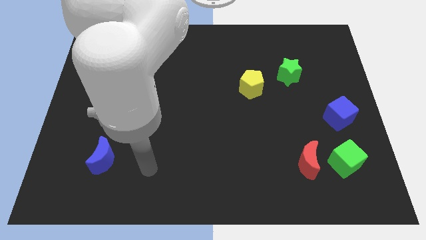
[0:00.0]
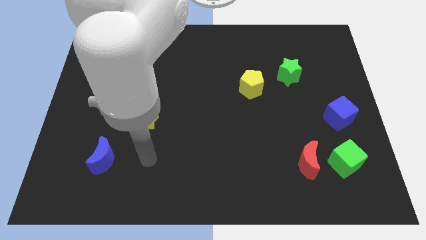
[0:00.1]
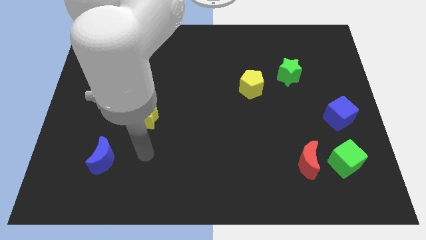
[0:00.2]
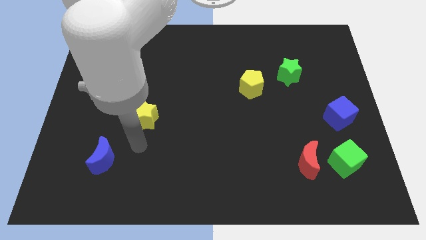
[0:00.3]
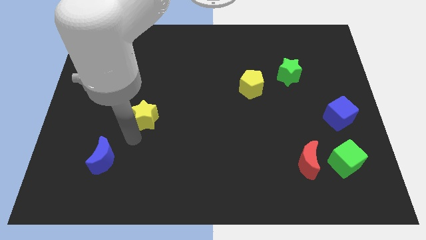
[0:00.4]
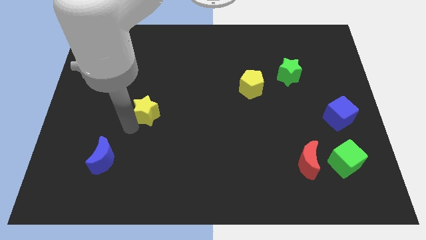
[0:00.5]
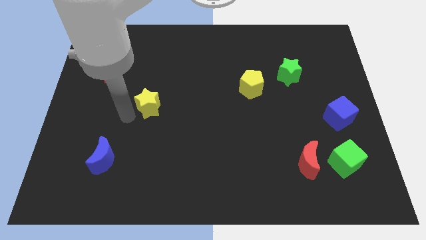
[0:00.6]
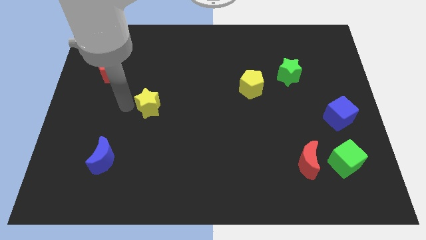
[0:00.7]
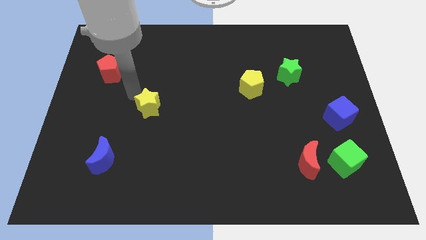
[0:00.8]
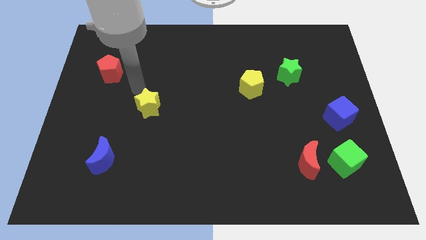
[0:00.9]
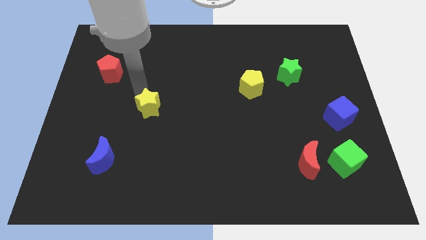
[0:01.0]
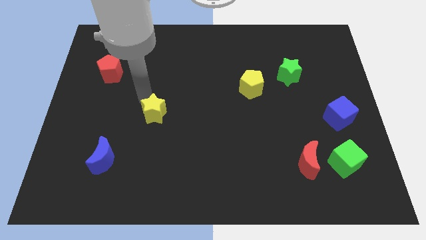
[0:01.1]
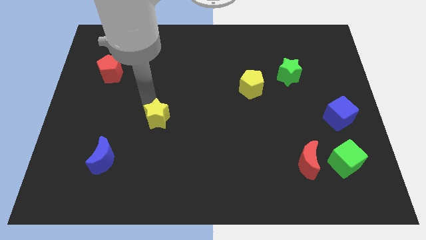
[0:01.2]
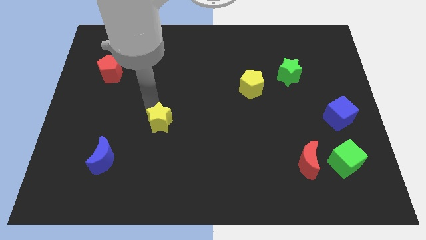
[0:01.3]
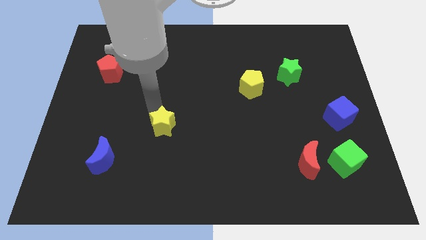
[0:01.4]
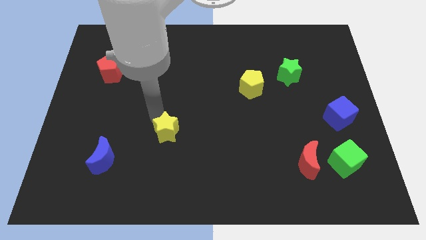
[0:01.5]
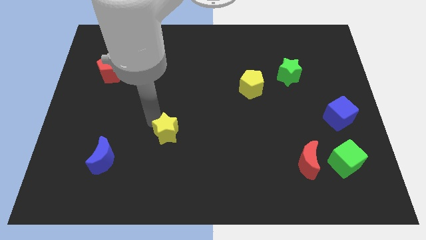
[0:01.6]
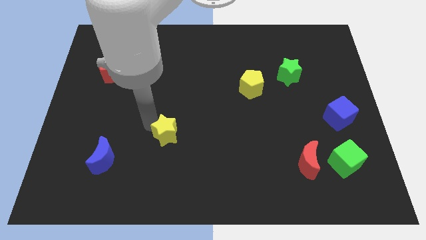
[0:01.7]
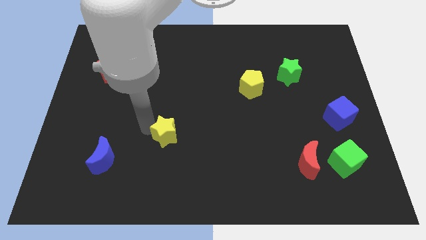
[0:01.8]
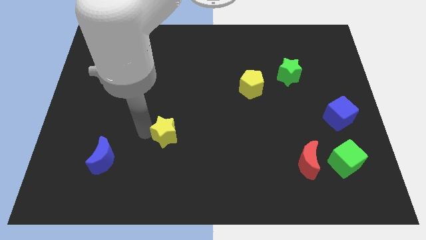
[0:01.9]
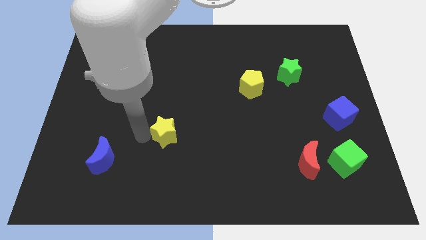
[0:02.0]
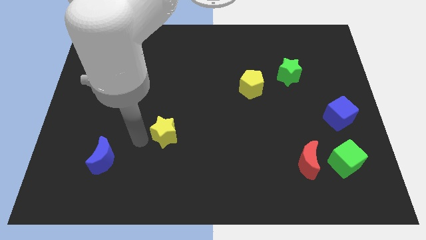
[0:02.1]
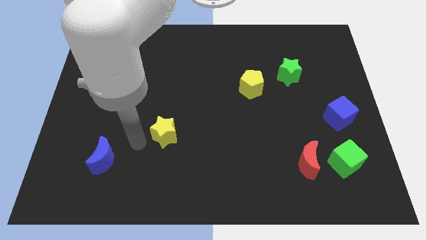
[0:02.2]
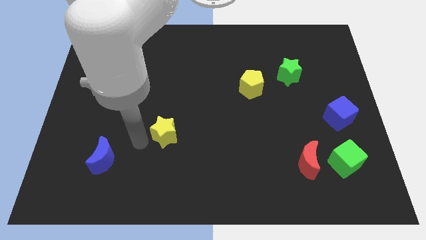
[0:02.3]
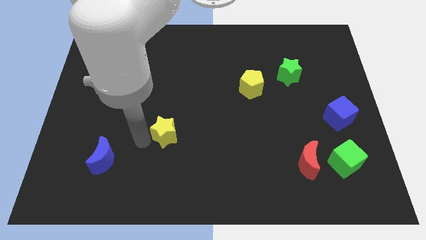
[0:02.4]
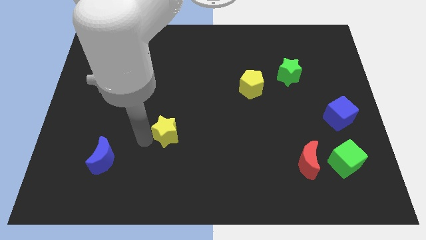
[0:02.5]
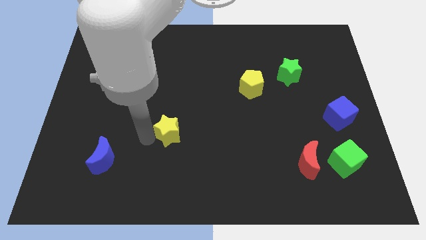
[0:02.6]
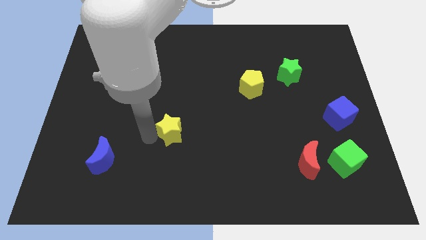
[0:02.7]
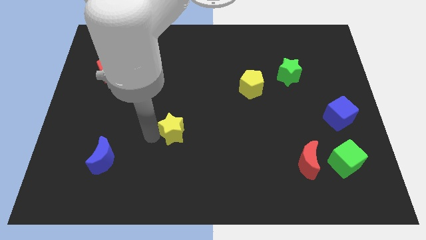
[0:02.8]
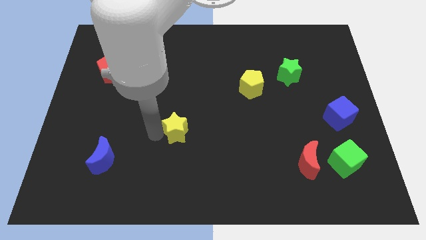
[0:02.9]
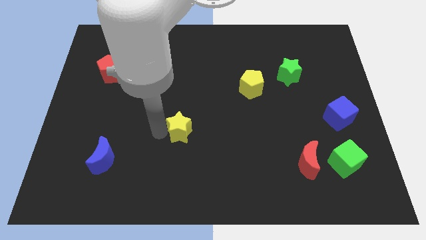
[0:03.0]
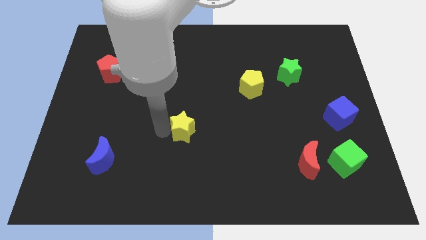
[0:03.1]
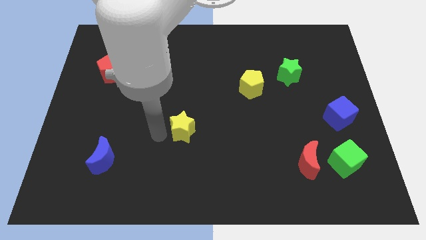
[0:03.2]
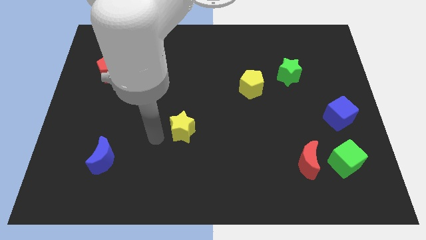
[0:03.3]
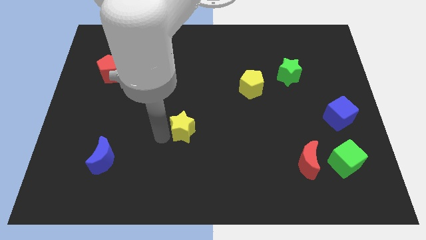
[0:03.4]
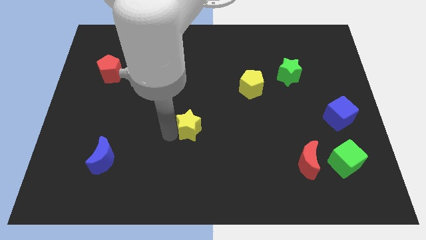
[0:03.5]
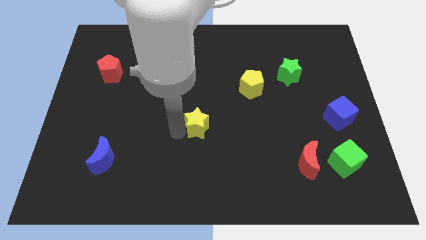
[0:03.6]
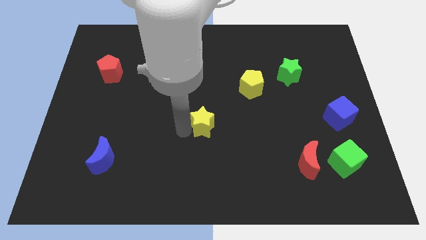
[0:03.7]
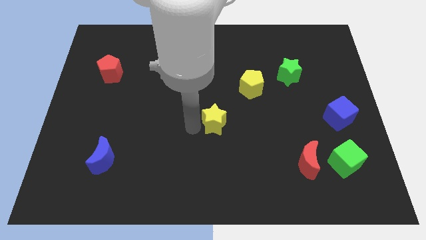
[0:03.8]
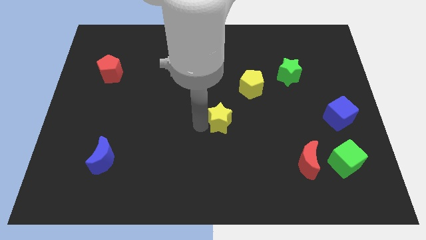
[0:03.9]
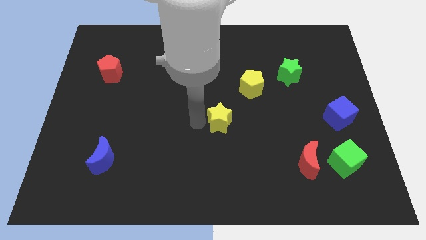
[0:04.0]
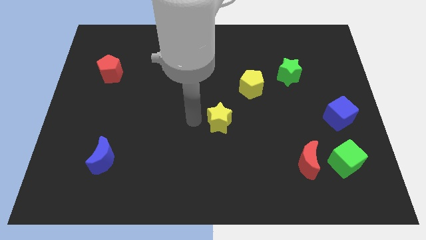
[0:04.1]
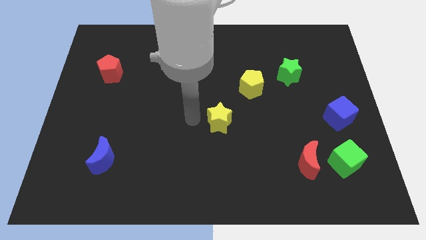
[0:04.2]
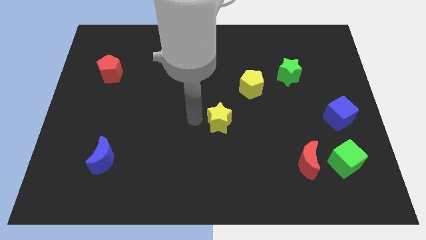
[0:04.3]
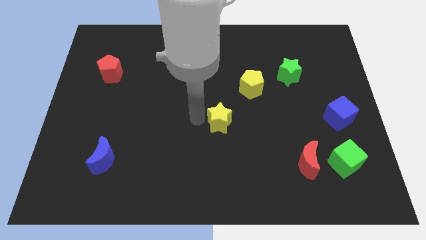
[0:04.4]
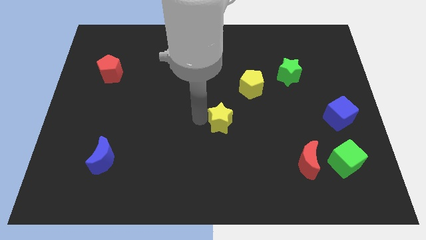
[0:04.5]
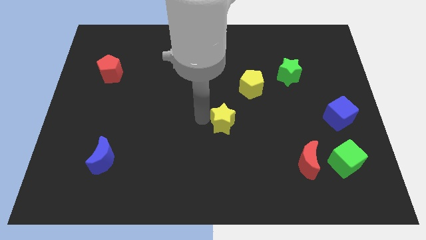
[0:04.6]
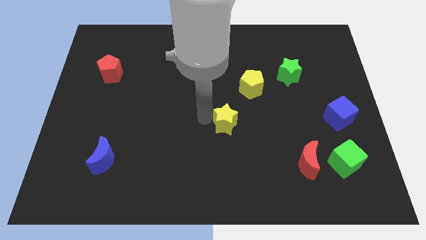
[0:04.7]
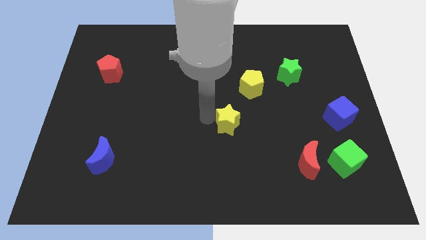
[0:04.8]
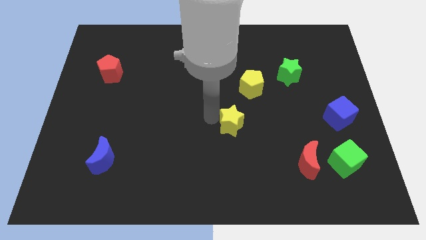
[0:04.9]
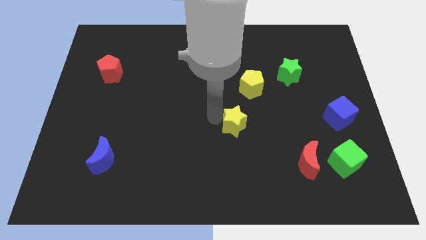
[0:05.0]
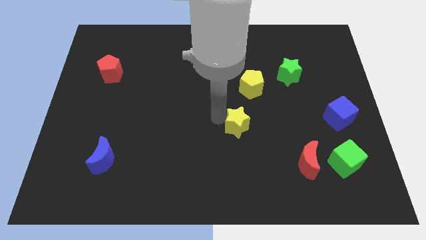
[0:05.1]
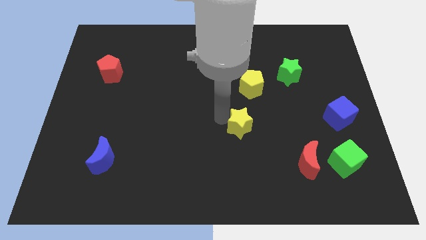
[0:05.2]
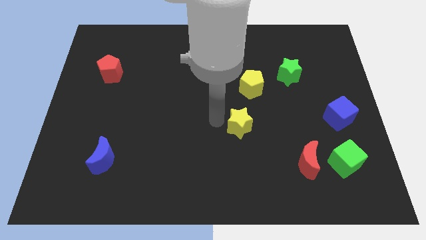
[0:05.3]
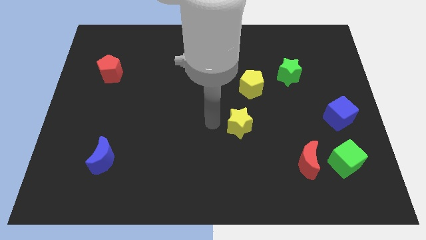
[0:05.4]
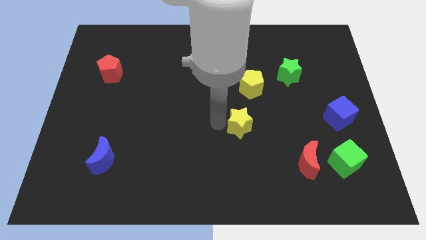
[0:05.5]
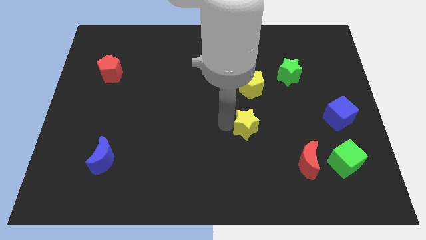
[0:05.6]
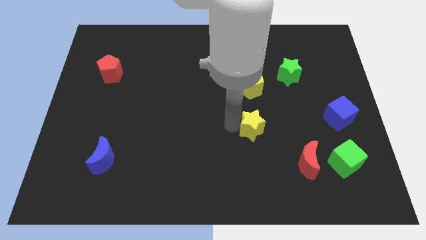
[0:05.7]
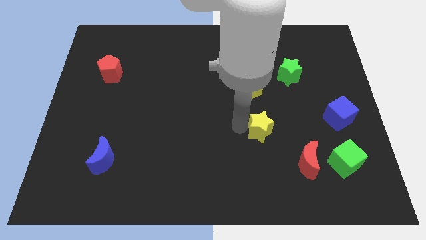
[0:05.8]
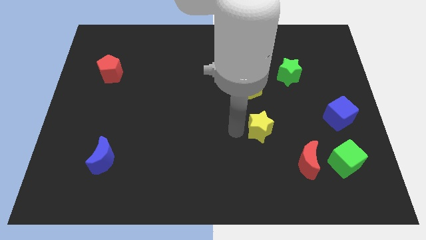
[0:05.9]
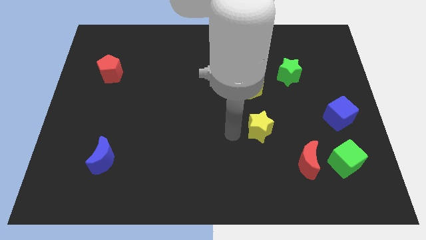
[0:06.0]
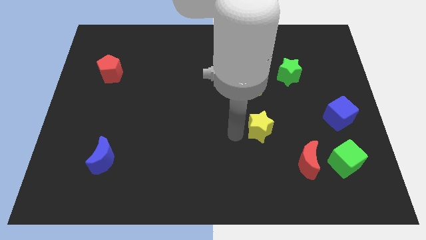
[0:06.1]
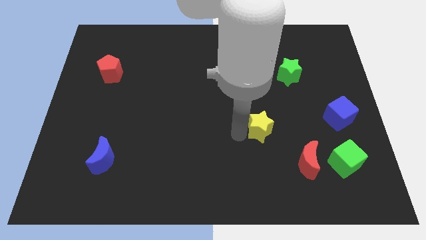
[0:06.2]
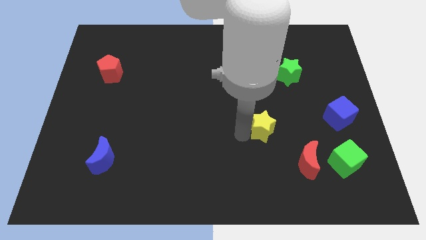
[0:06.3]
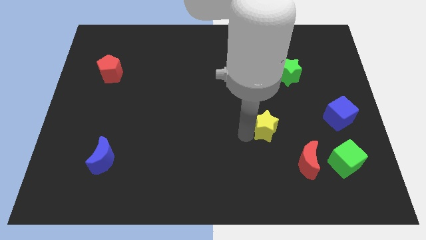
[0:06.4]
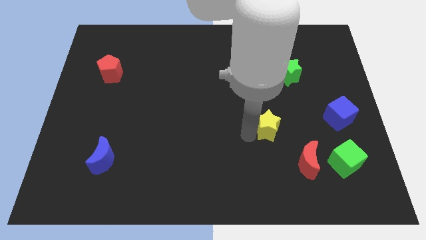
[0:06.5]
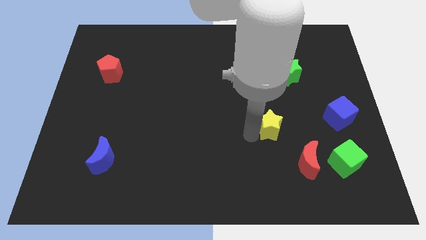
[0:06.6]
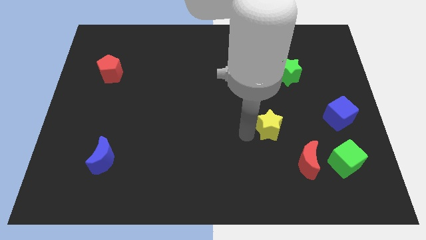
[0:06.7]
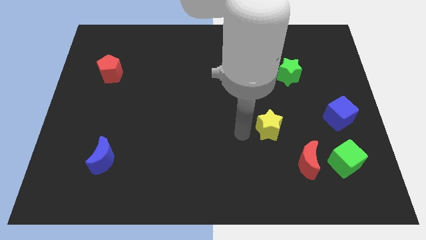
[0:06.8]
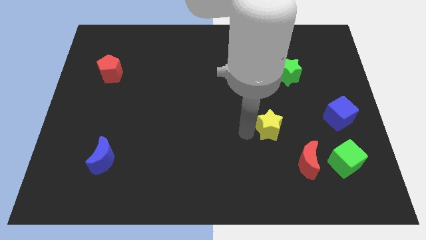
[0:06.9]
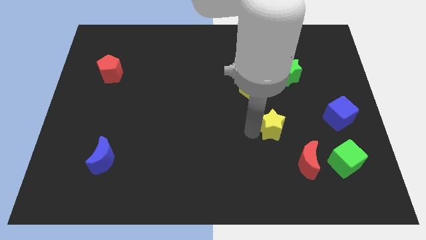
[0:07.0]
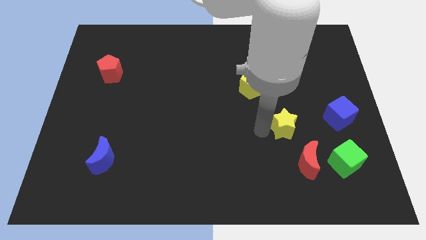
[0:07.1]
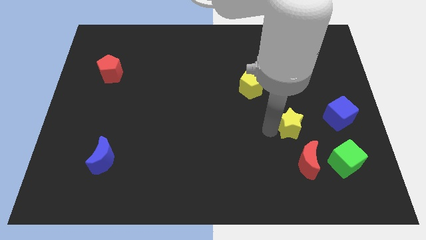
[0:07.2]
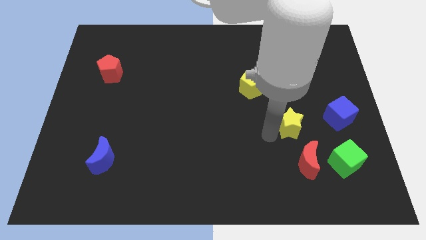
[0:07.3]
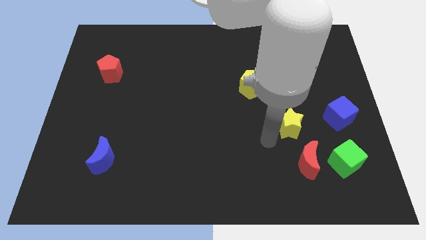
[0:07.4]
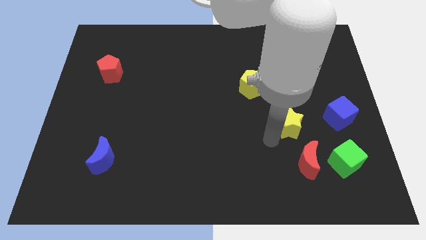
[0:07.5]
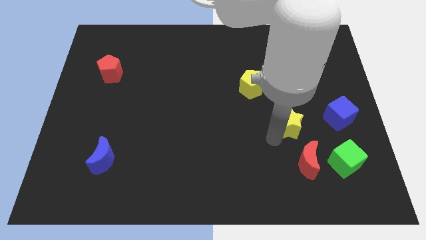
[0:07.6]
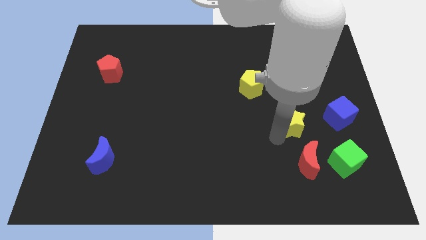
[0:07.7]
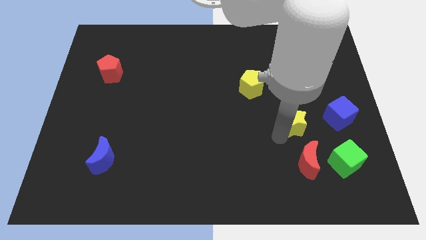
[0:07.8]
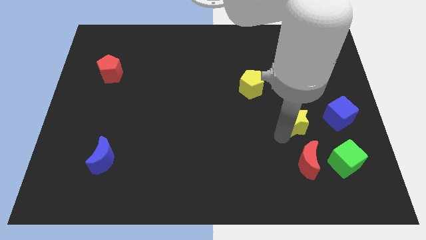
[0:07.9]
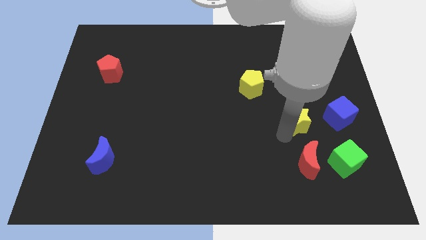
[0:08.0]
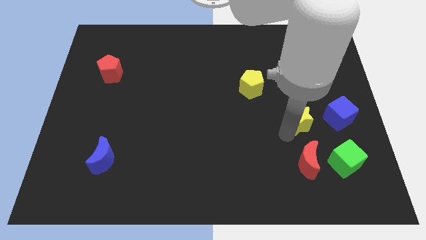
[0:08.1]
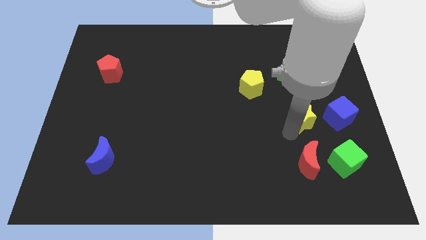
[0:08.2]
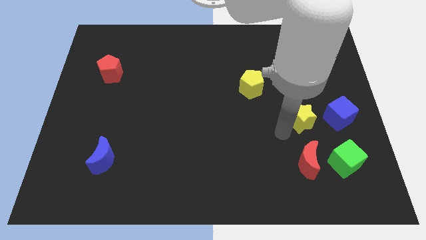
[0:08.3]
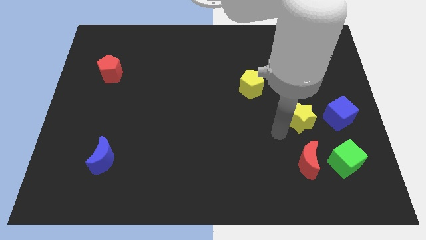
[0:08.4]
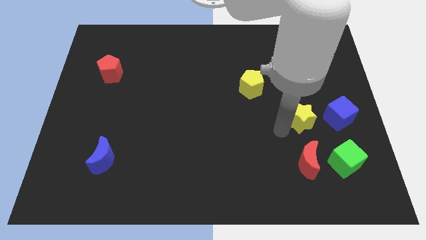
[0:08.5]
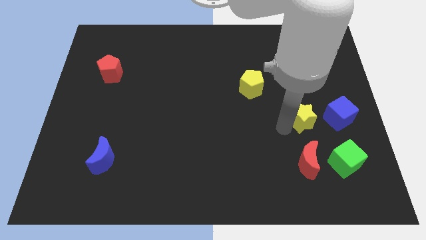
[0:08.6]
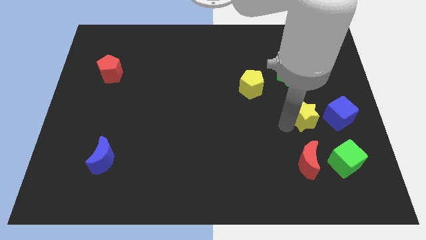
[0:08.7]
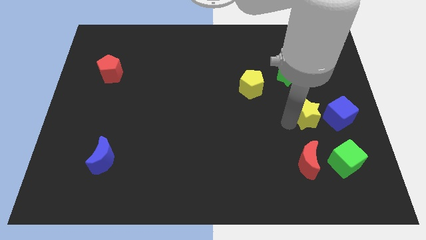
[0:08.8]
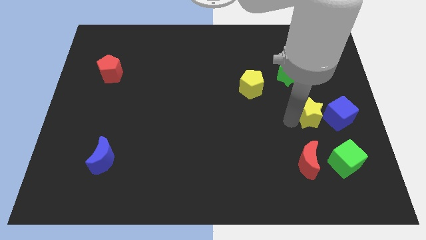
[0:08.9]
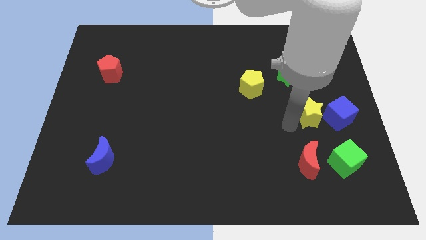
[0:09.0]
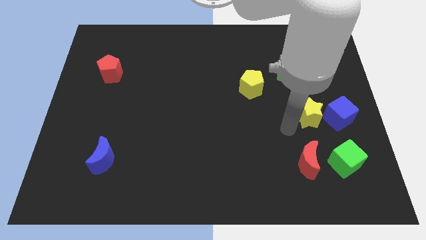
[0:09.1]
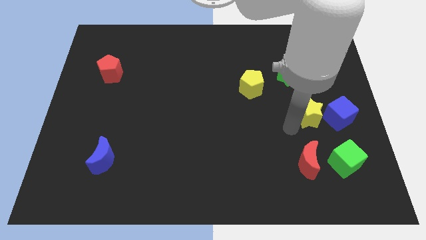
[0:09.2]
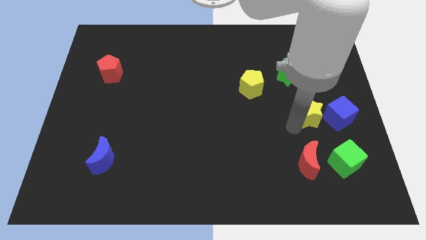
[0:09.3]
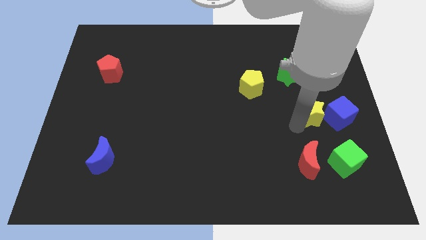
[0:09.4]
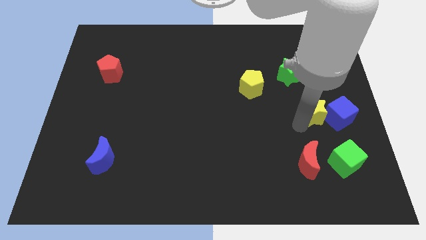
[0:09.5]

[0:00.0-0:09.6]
push the yellow star to the top of the green cube
